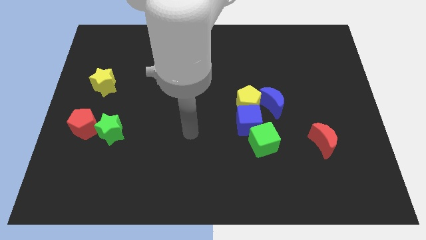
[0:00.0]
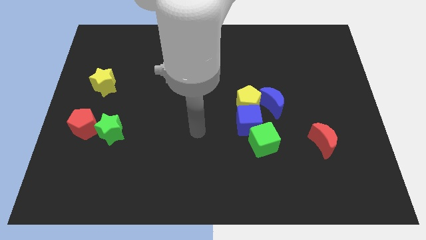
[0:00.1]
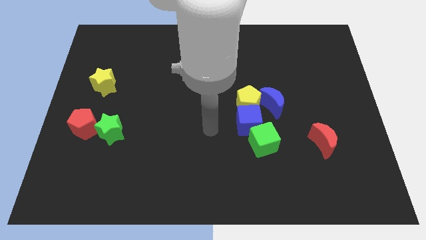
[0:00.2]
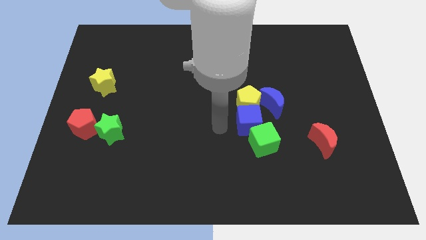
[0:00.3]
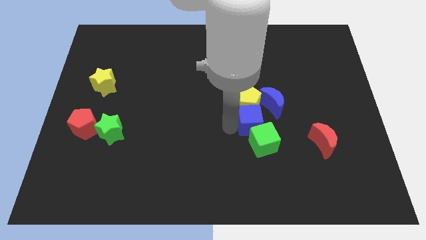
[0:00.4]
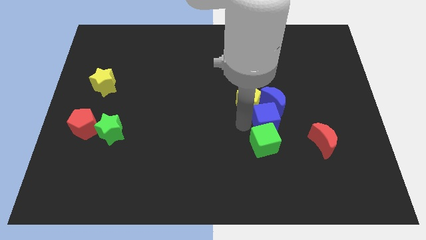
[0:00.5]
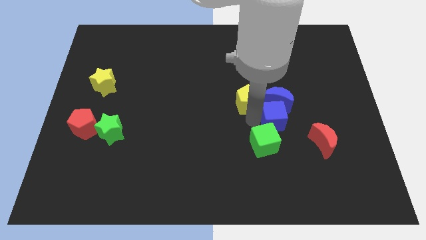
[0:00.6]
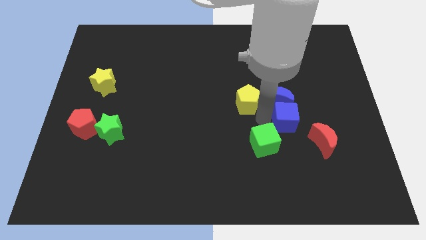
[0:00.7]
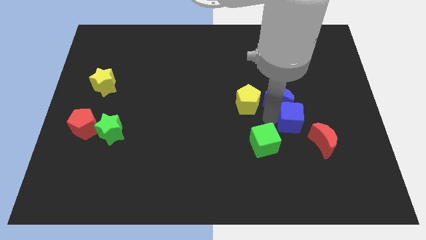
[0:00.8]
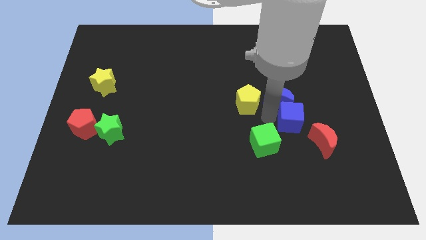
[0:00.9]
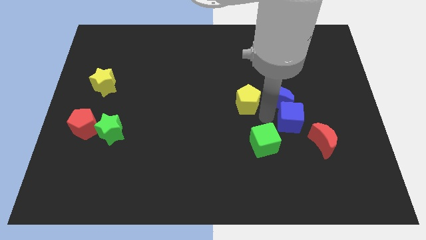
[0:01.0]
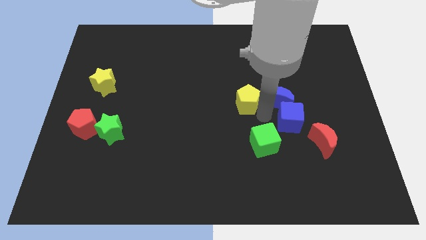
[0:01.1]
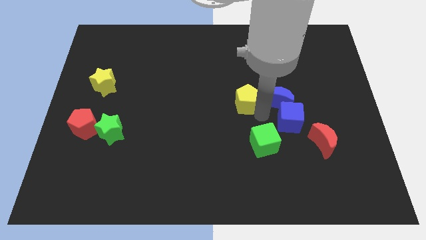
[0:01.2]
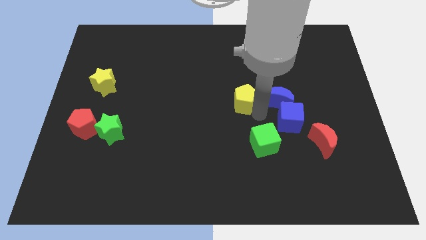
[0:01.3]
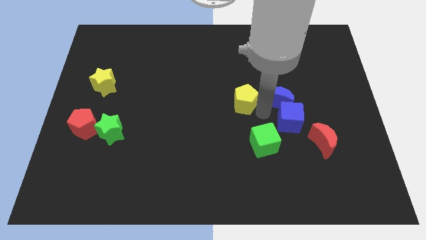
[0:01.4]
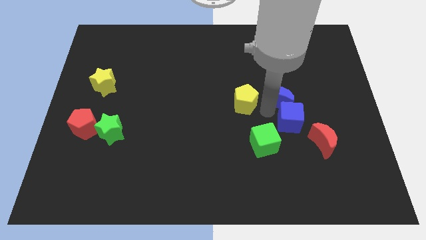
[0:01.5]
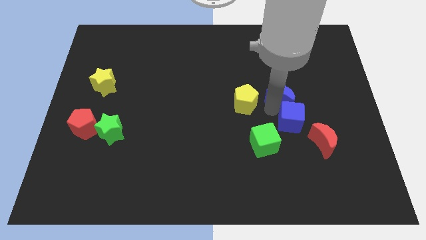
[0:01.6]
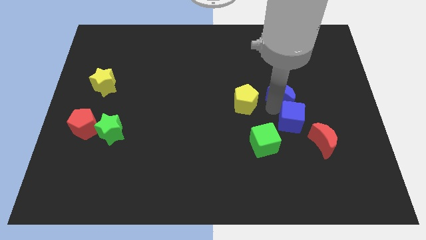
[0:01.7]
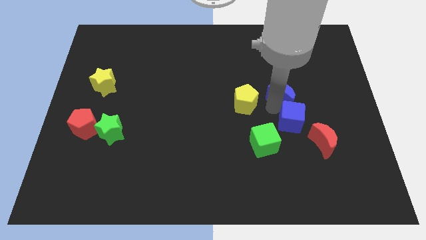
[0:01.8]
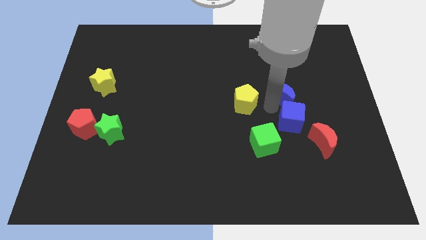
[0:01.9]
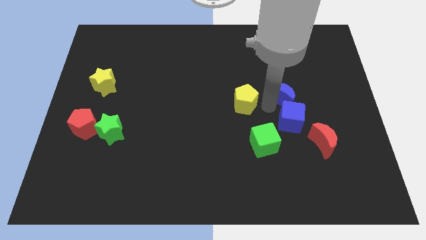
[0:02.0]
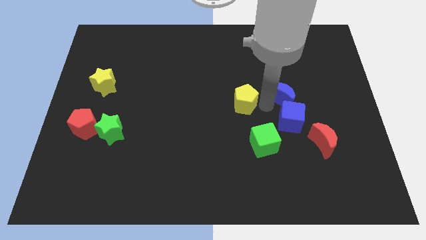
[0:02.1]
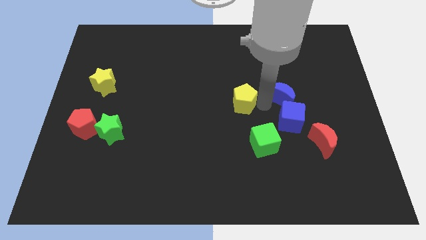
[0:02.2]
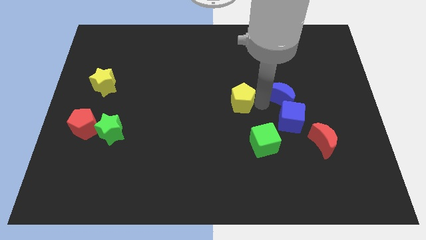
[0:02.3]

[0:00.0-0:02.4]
separate the yellow pentagon from the blue cube and blue moon

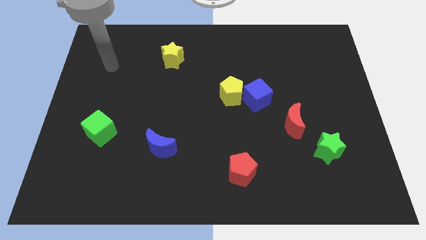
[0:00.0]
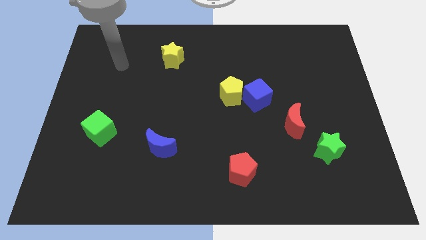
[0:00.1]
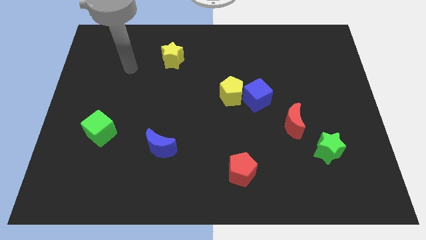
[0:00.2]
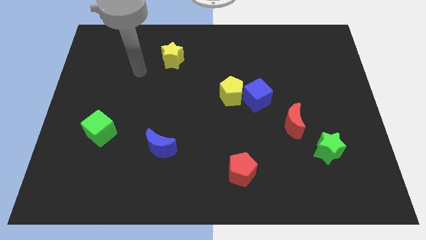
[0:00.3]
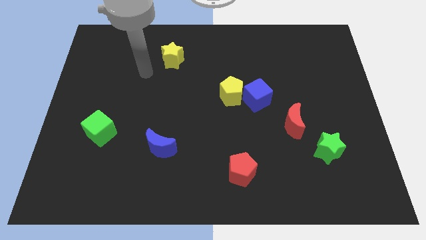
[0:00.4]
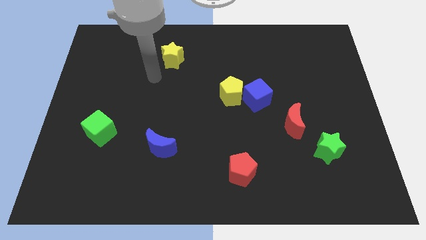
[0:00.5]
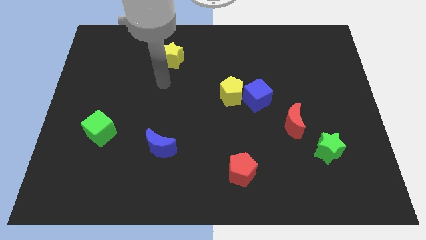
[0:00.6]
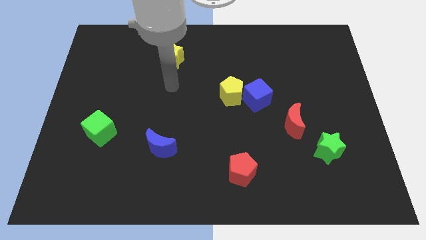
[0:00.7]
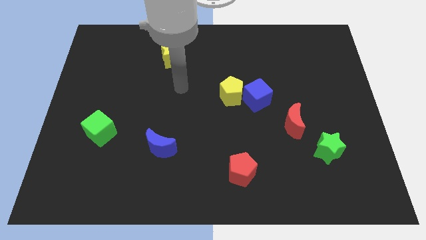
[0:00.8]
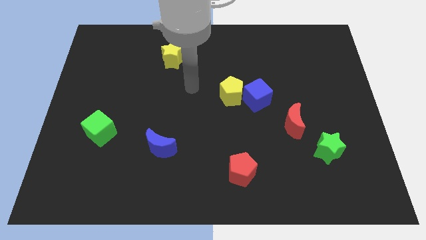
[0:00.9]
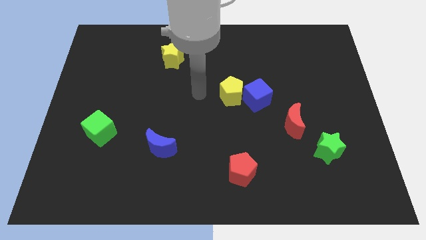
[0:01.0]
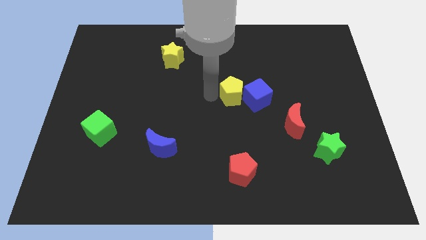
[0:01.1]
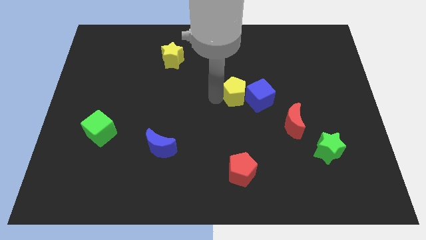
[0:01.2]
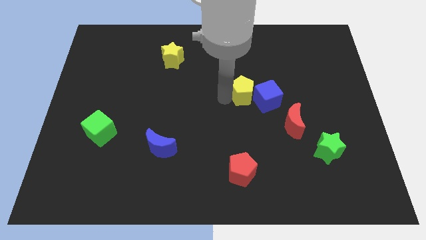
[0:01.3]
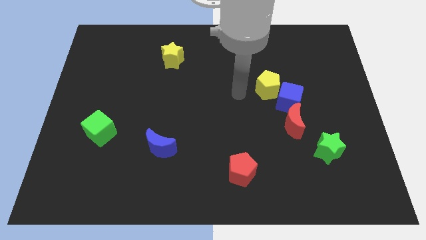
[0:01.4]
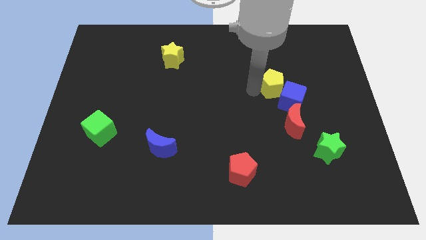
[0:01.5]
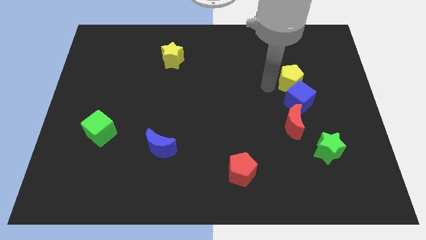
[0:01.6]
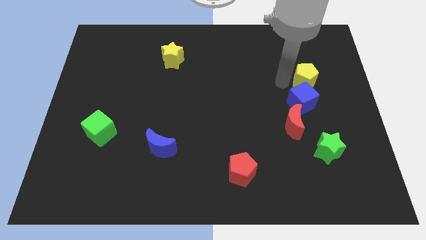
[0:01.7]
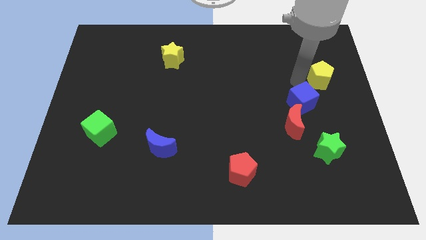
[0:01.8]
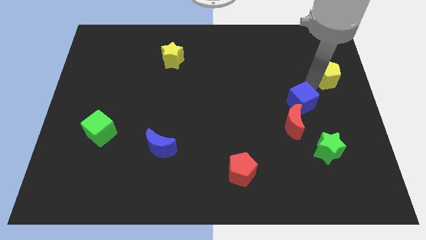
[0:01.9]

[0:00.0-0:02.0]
pull the blue cube apart from the yellow pentagon

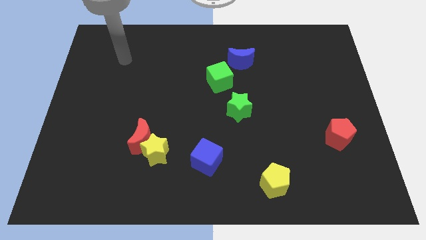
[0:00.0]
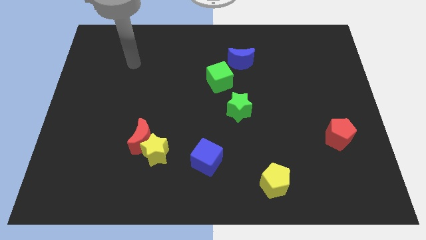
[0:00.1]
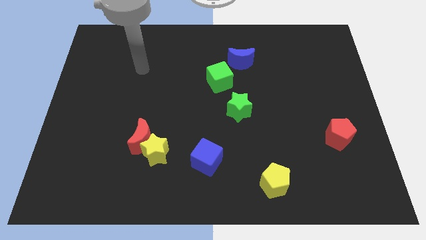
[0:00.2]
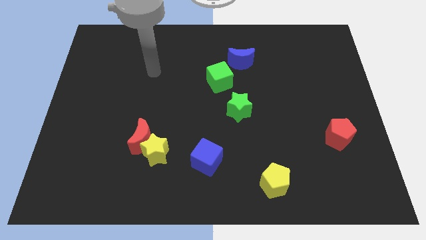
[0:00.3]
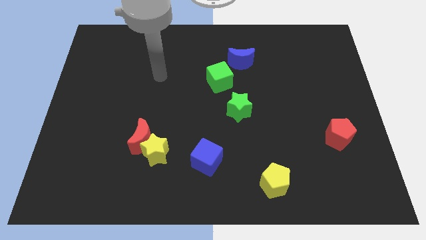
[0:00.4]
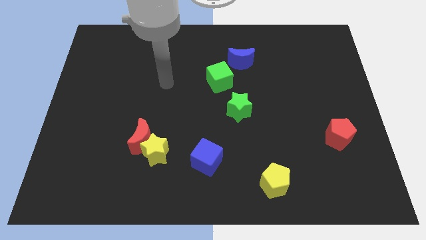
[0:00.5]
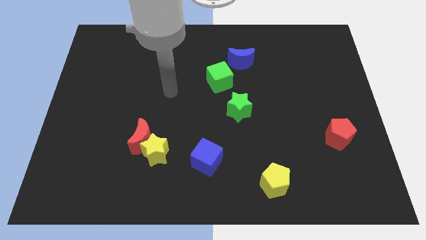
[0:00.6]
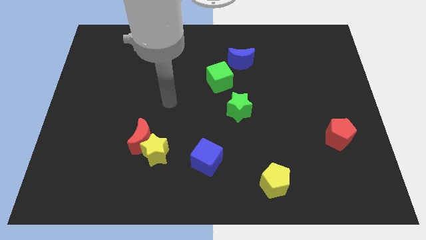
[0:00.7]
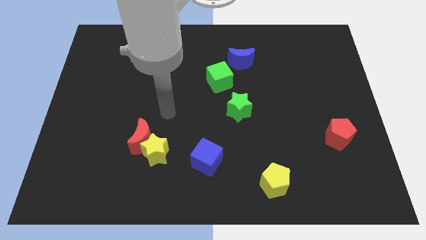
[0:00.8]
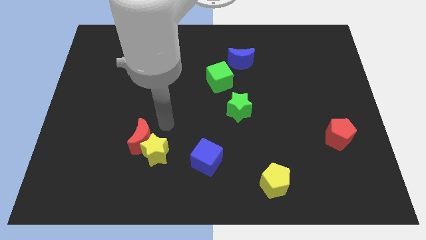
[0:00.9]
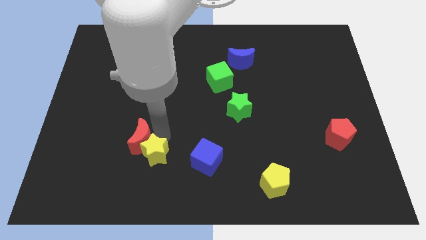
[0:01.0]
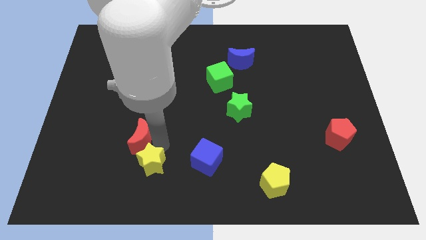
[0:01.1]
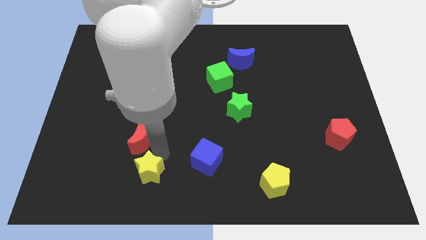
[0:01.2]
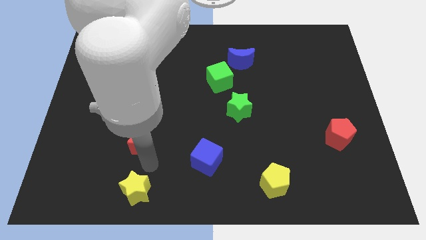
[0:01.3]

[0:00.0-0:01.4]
pull the red moon apart from the yellow star

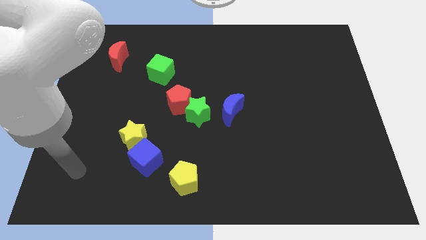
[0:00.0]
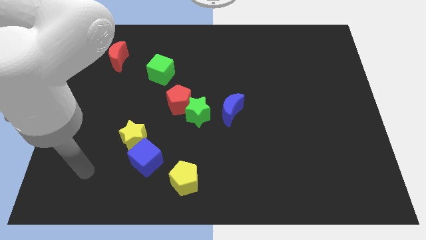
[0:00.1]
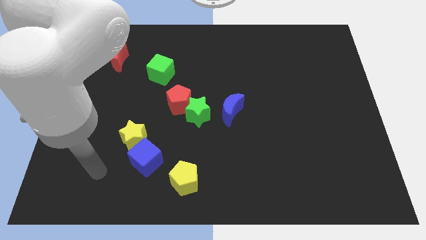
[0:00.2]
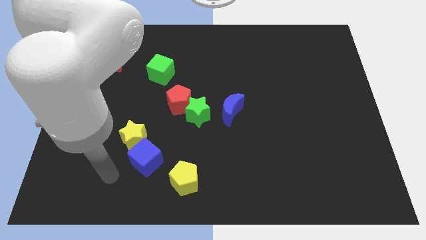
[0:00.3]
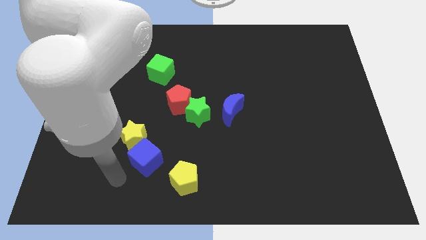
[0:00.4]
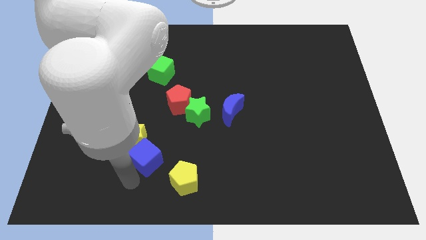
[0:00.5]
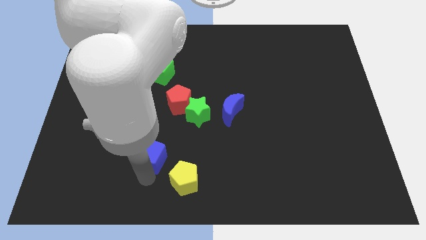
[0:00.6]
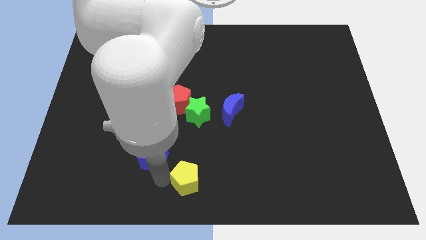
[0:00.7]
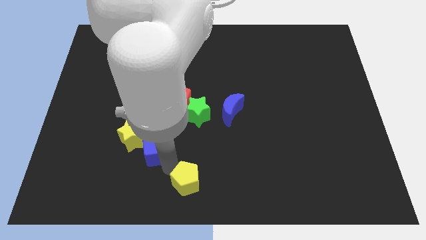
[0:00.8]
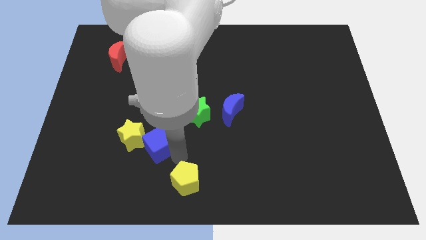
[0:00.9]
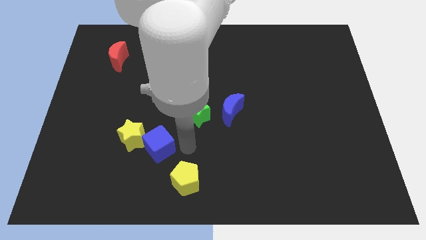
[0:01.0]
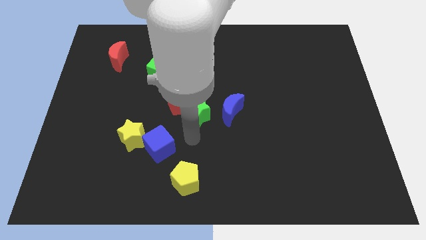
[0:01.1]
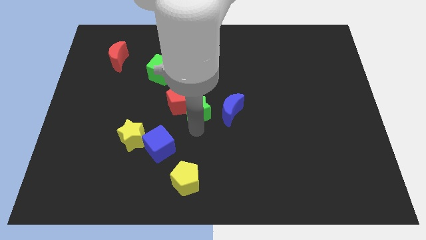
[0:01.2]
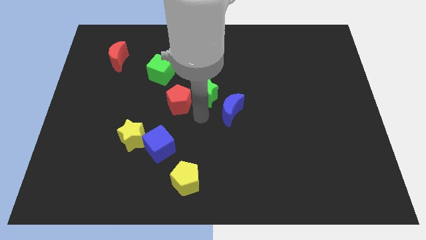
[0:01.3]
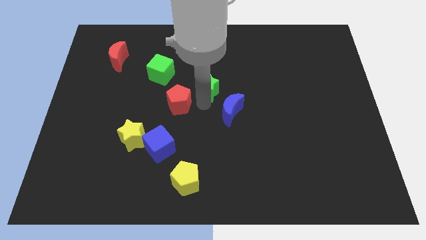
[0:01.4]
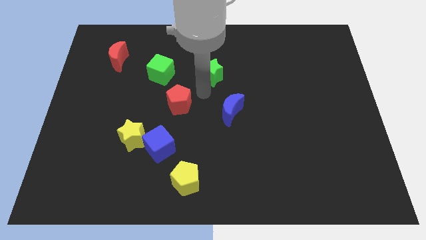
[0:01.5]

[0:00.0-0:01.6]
pull the red pentagon apart from the green star

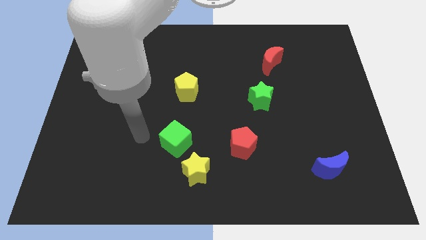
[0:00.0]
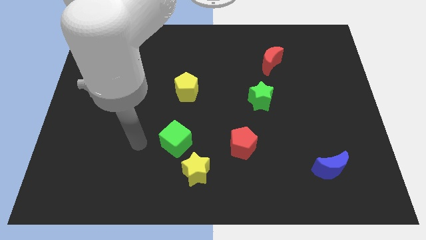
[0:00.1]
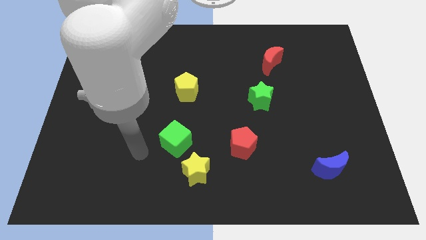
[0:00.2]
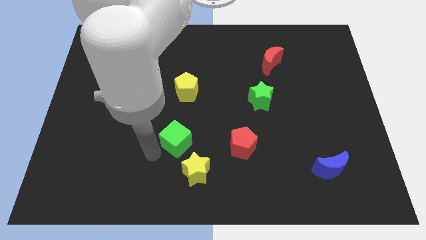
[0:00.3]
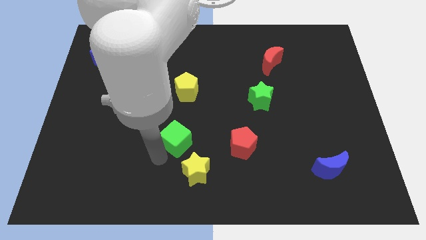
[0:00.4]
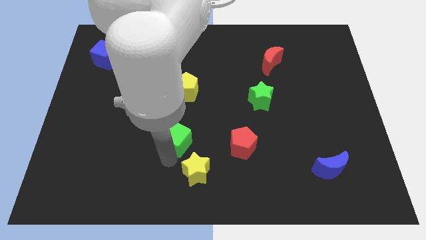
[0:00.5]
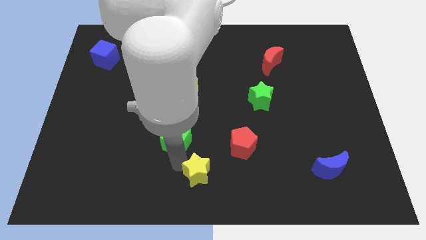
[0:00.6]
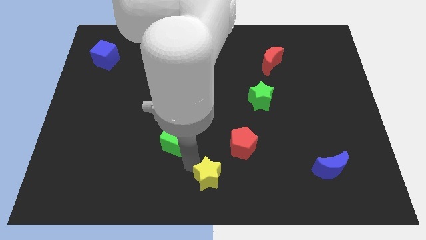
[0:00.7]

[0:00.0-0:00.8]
separate the green cube from the yellow star

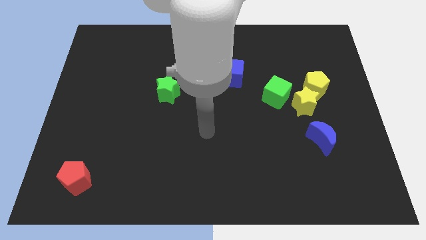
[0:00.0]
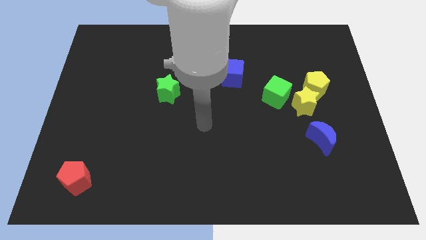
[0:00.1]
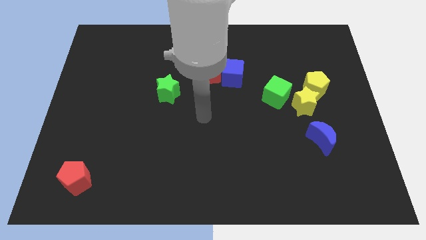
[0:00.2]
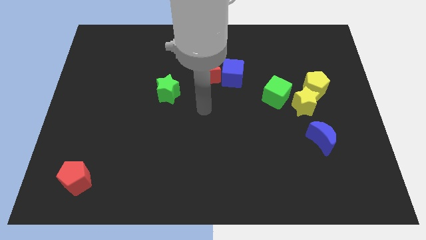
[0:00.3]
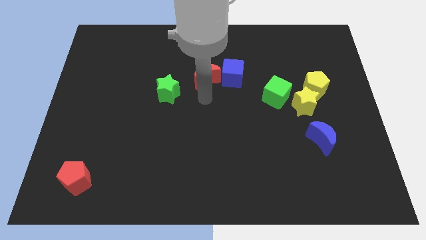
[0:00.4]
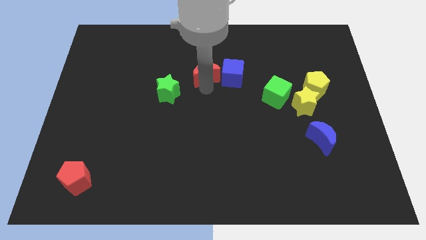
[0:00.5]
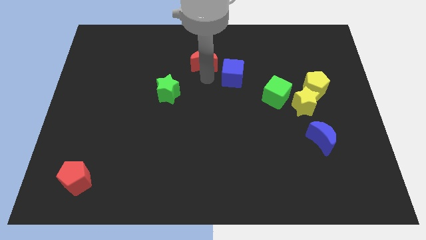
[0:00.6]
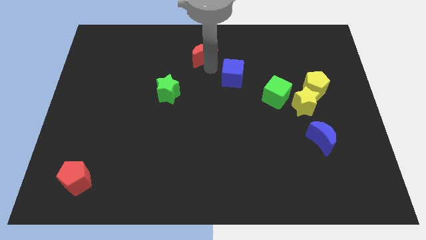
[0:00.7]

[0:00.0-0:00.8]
separate the blue cube from the red moon

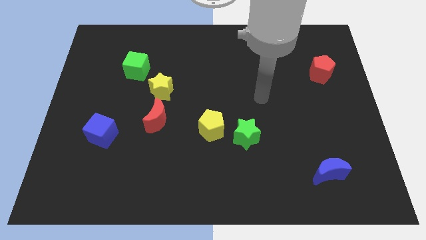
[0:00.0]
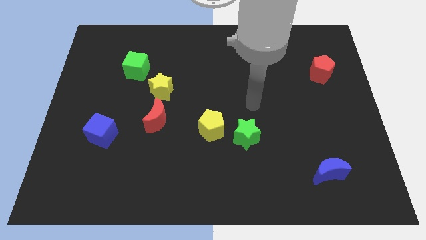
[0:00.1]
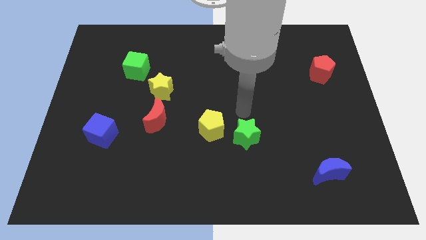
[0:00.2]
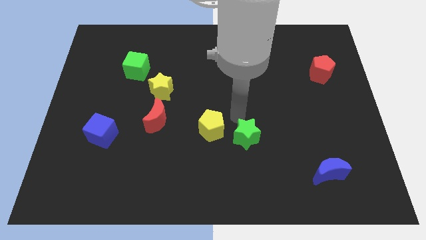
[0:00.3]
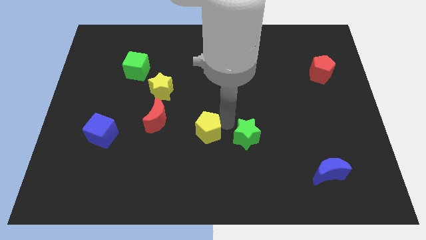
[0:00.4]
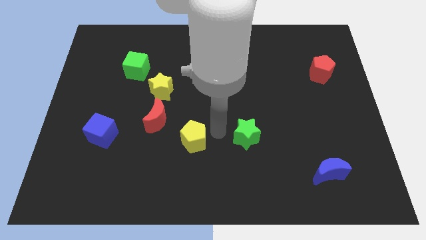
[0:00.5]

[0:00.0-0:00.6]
separate the green star from the yellow pentagon
